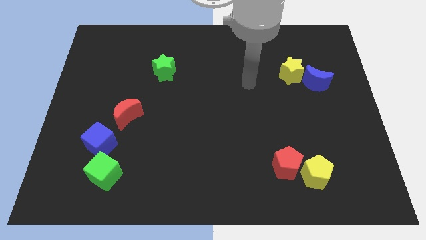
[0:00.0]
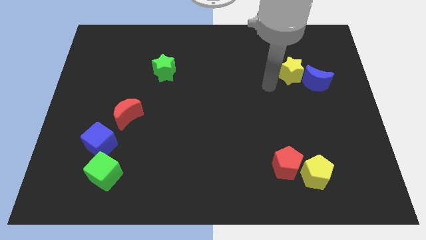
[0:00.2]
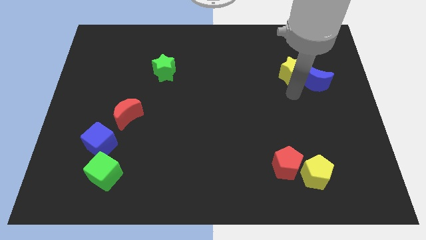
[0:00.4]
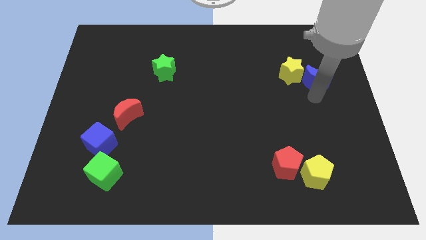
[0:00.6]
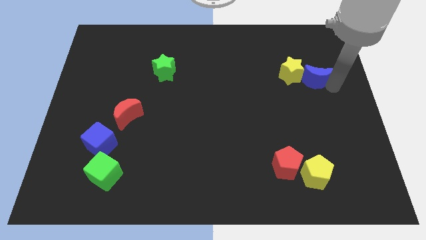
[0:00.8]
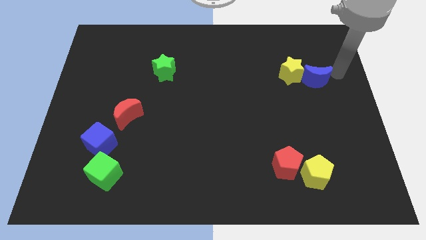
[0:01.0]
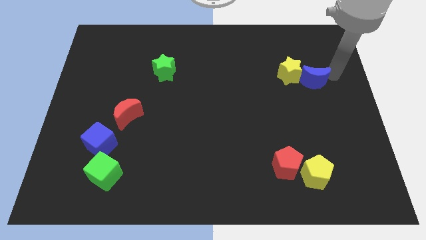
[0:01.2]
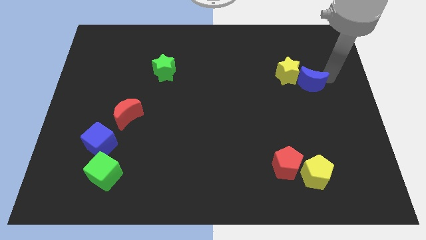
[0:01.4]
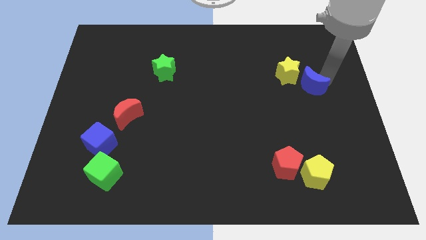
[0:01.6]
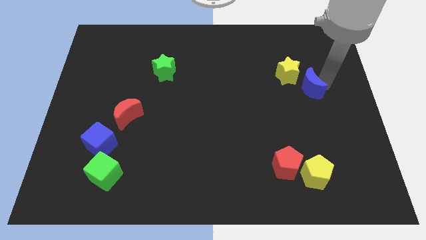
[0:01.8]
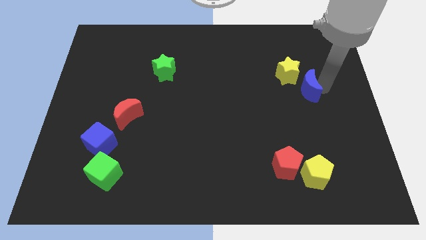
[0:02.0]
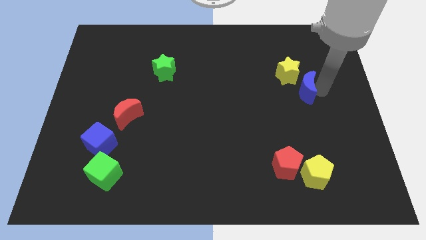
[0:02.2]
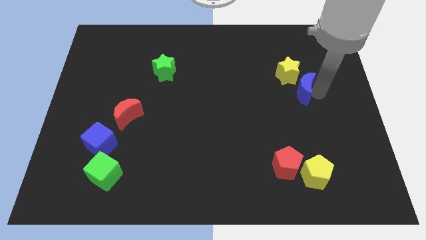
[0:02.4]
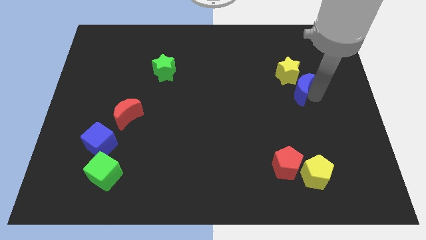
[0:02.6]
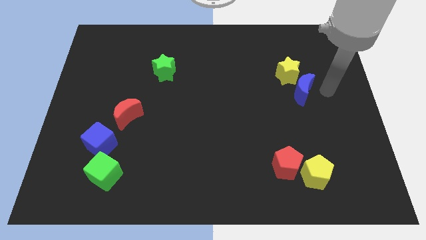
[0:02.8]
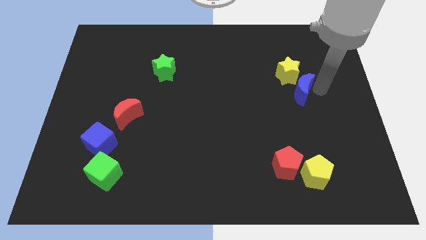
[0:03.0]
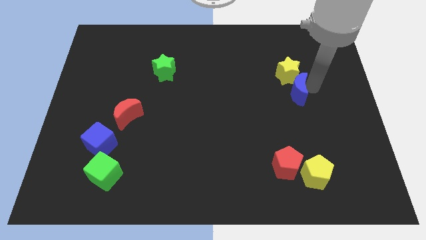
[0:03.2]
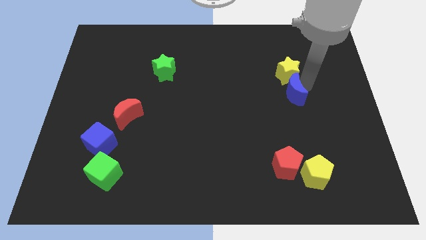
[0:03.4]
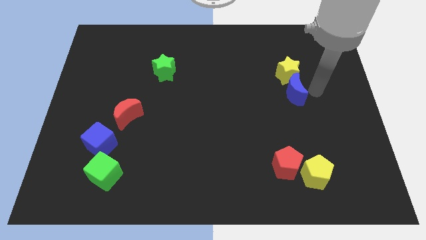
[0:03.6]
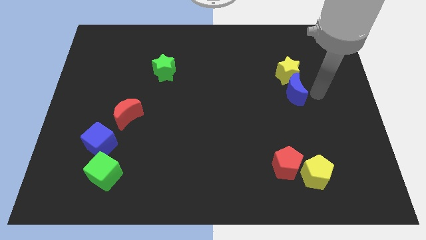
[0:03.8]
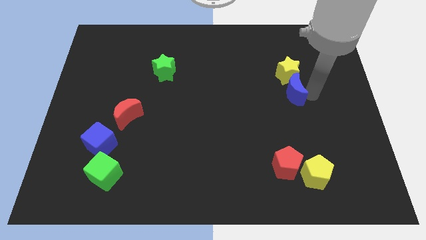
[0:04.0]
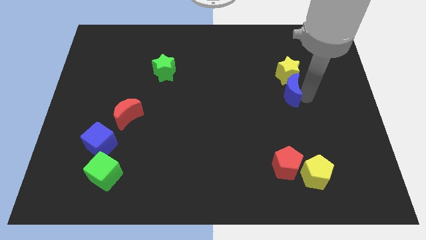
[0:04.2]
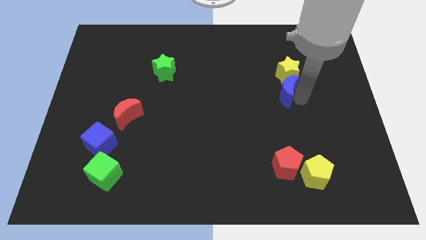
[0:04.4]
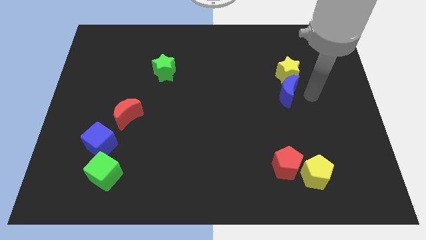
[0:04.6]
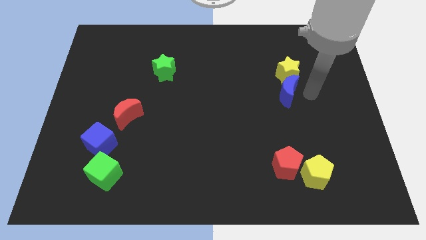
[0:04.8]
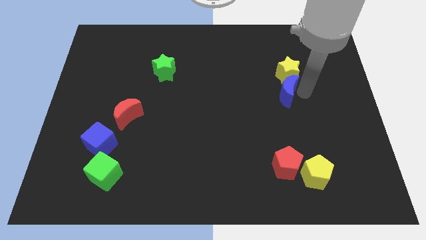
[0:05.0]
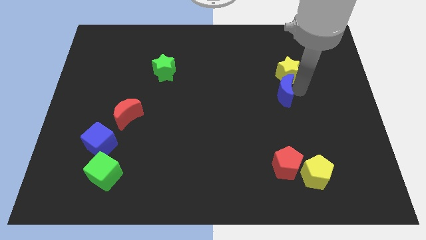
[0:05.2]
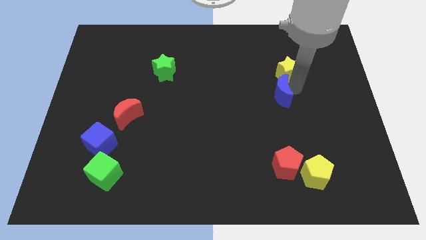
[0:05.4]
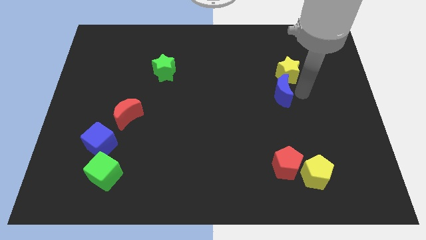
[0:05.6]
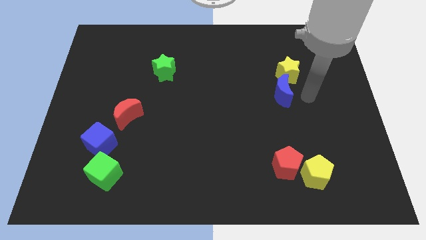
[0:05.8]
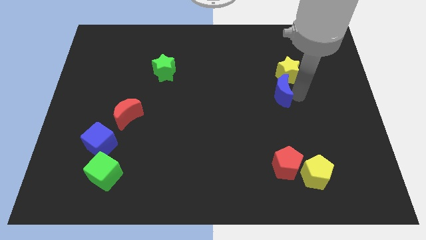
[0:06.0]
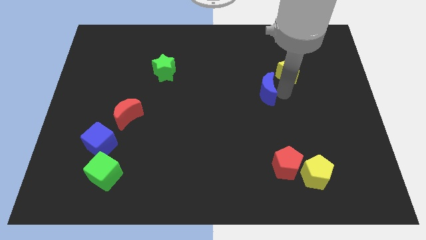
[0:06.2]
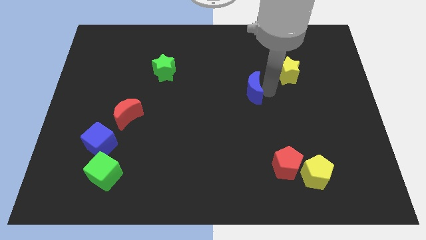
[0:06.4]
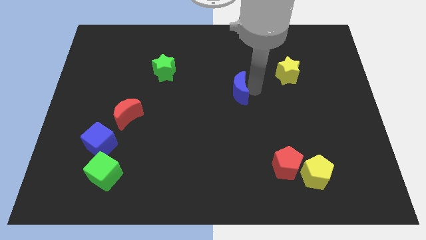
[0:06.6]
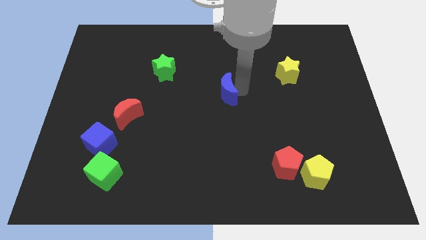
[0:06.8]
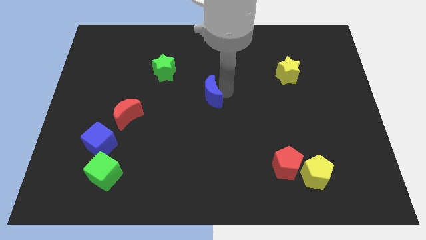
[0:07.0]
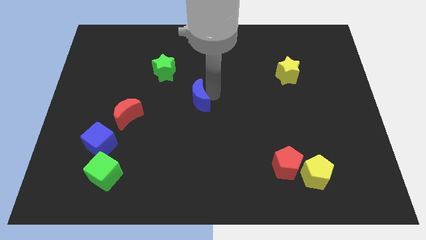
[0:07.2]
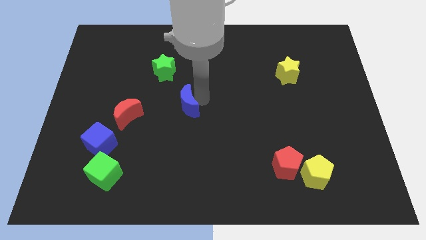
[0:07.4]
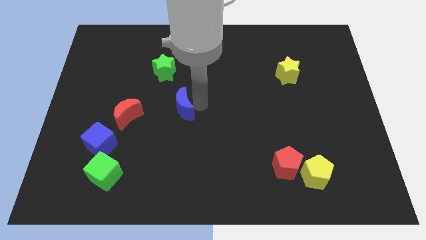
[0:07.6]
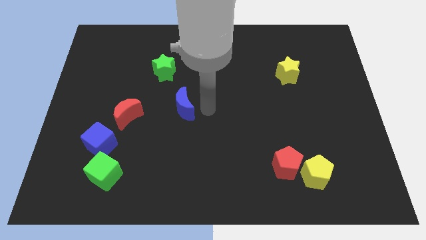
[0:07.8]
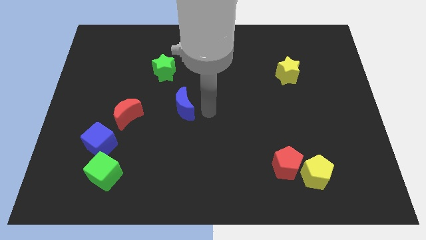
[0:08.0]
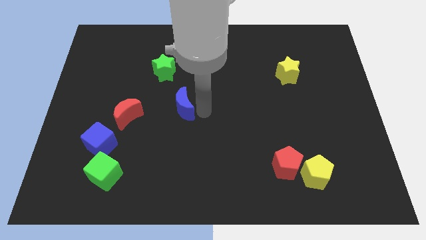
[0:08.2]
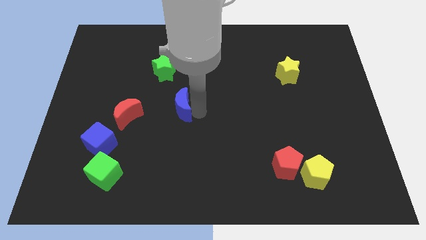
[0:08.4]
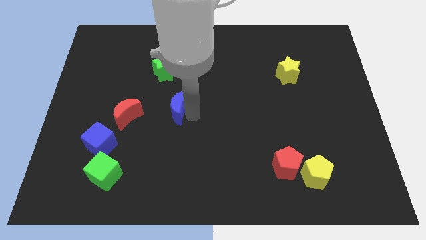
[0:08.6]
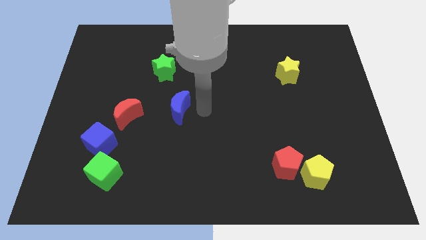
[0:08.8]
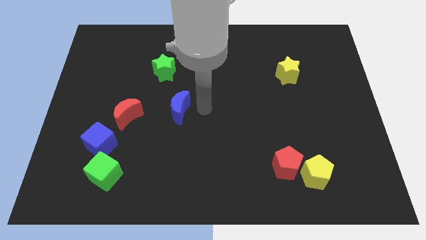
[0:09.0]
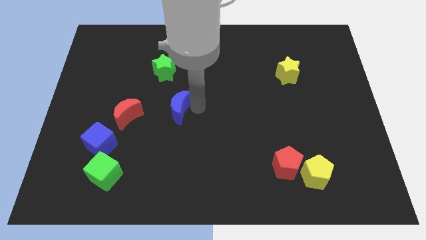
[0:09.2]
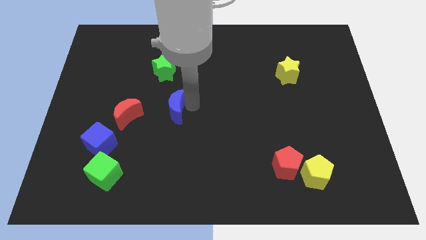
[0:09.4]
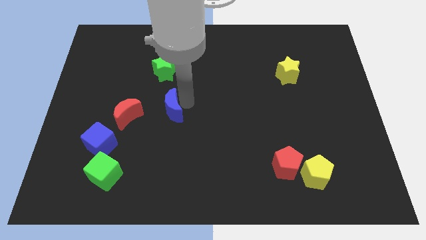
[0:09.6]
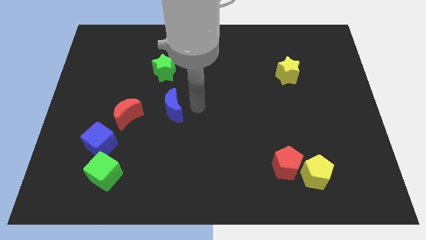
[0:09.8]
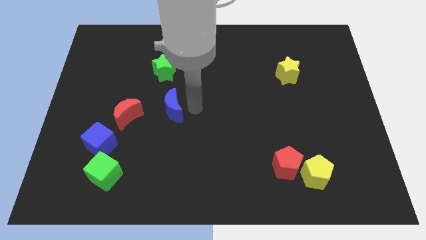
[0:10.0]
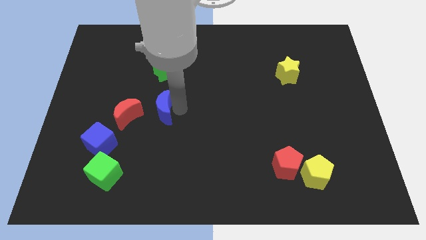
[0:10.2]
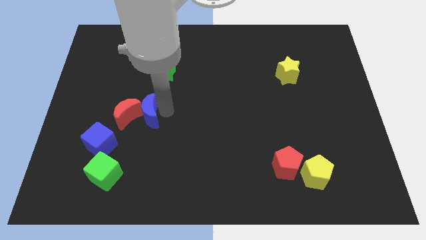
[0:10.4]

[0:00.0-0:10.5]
put the blue moon towards the red moon

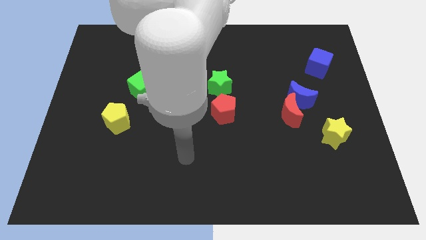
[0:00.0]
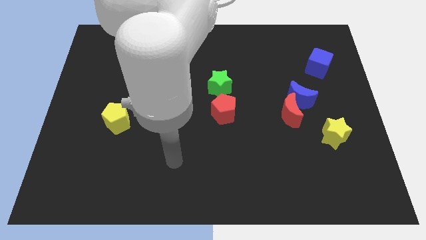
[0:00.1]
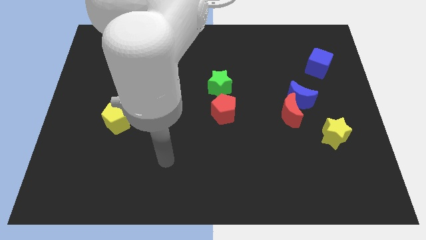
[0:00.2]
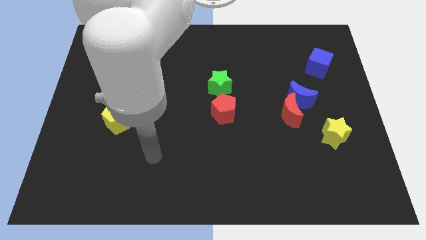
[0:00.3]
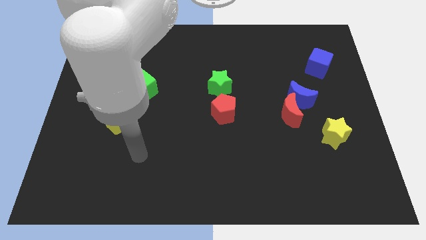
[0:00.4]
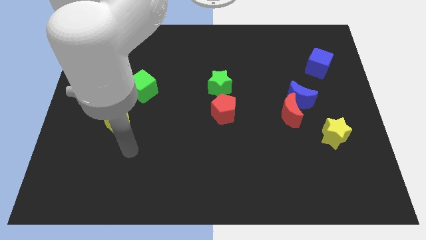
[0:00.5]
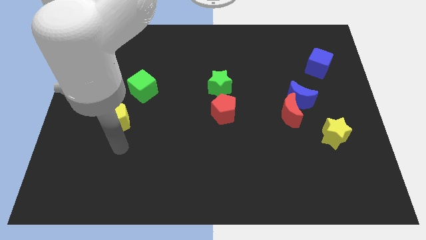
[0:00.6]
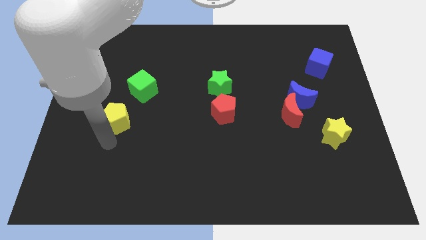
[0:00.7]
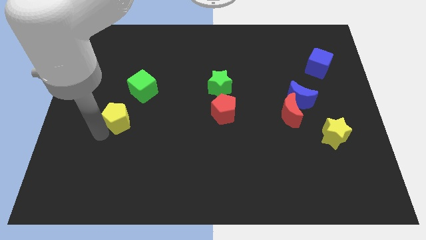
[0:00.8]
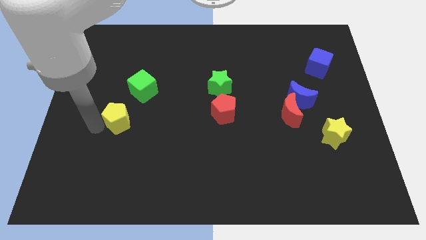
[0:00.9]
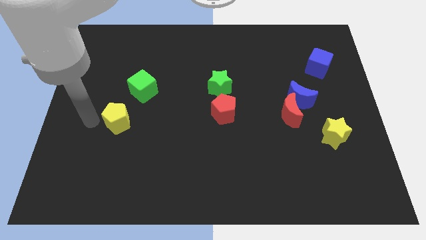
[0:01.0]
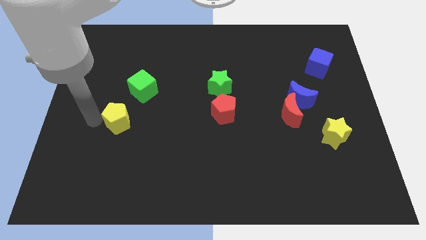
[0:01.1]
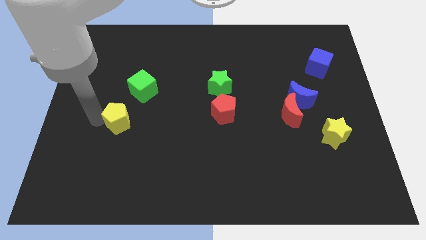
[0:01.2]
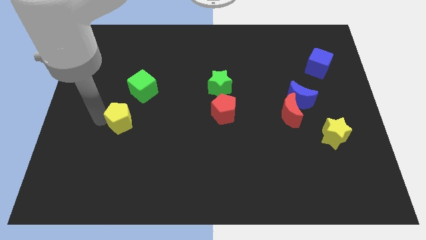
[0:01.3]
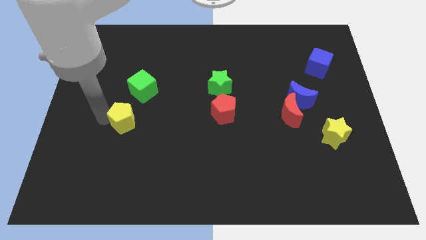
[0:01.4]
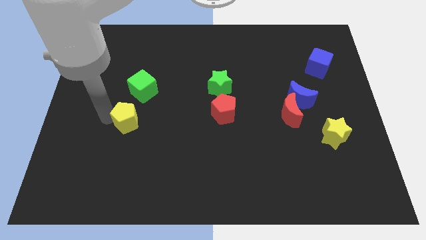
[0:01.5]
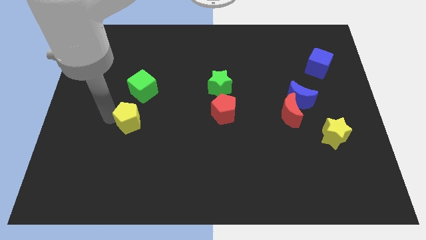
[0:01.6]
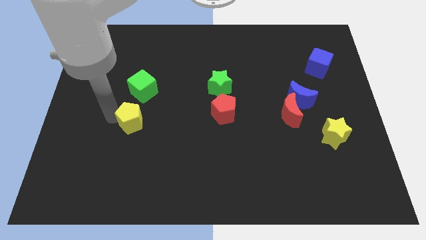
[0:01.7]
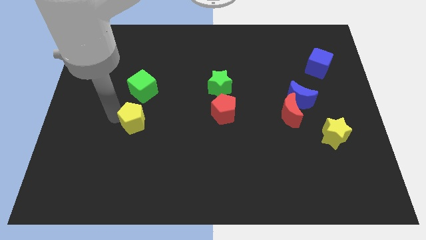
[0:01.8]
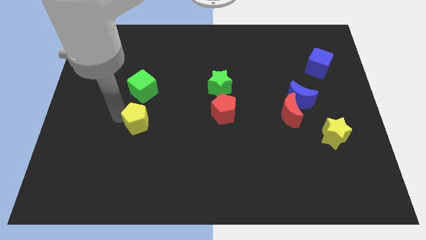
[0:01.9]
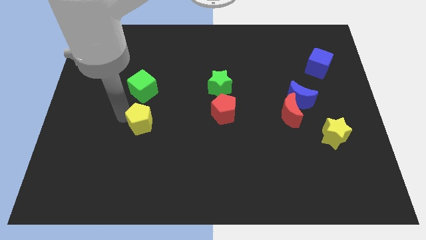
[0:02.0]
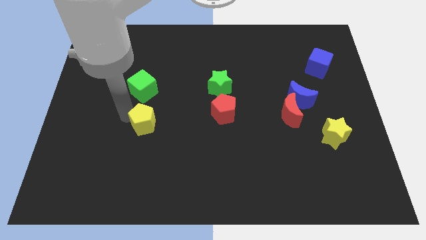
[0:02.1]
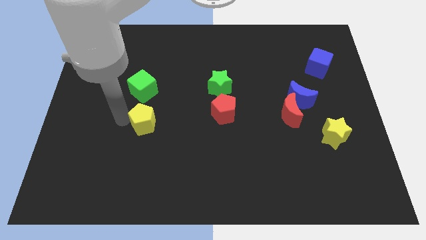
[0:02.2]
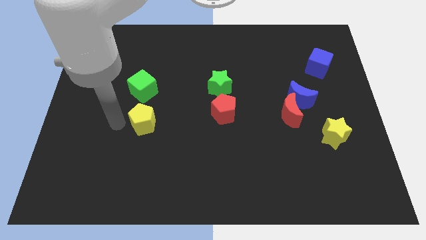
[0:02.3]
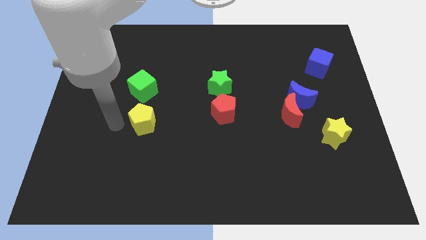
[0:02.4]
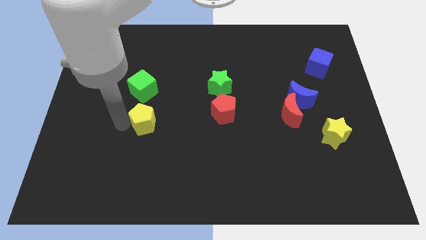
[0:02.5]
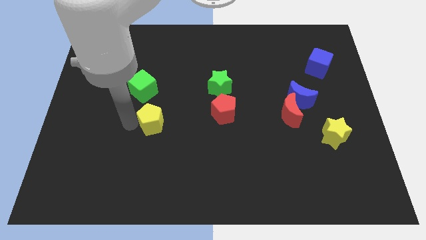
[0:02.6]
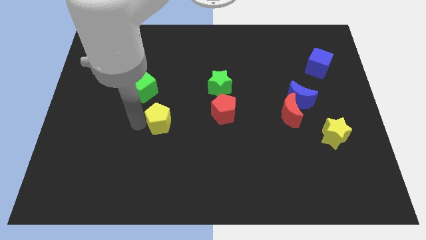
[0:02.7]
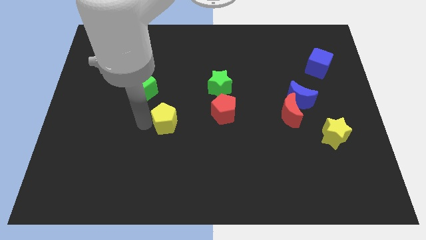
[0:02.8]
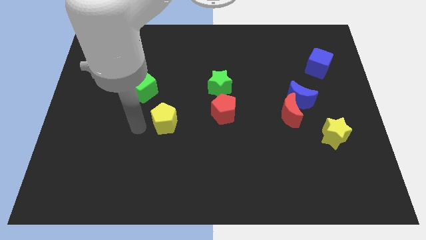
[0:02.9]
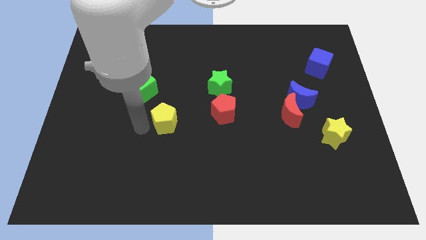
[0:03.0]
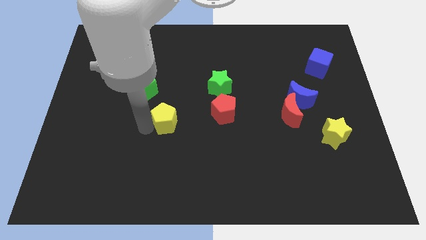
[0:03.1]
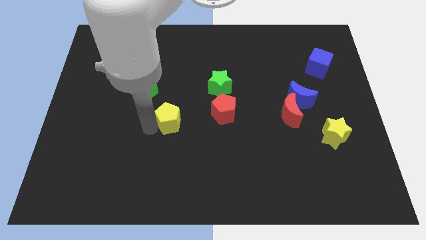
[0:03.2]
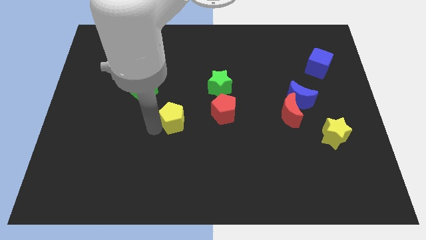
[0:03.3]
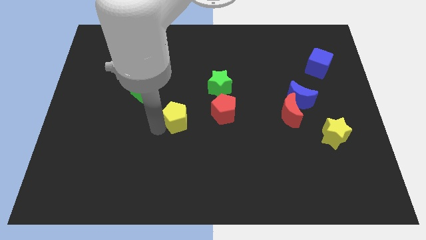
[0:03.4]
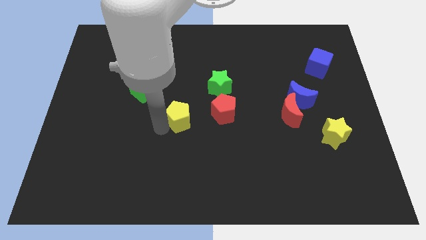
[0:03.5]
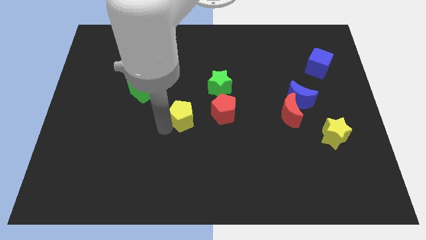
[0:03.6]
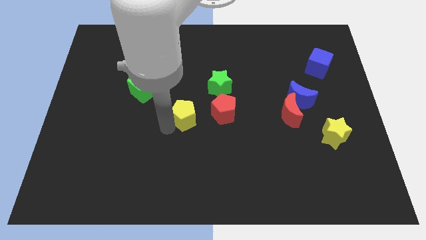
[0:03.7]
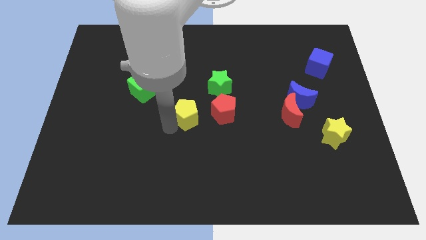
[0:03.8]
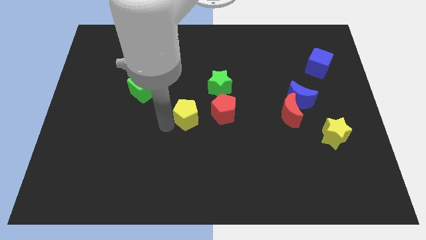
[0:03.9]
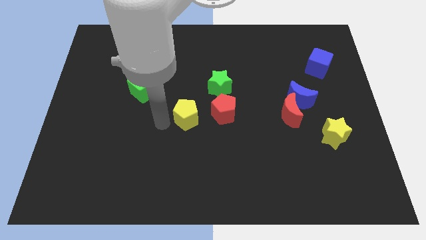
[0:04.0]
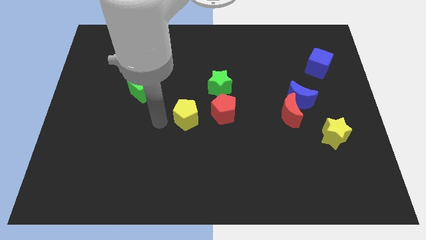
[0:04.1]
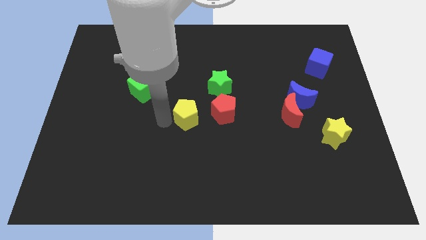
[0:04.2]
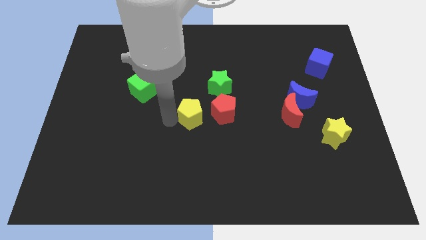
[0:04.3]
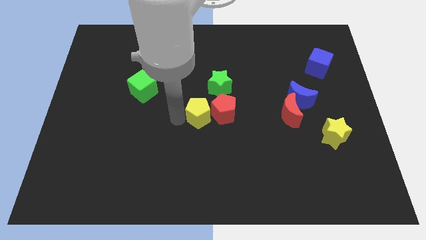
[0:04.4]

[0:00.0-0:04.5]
push the yellow pentagon next to the red pentagon
